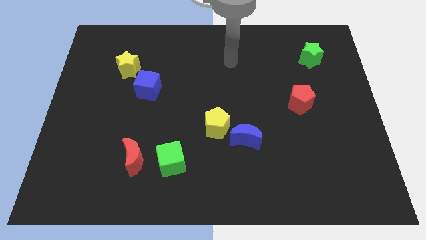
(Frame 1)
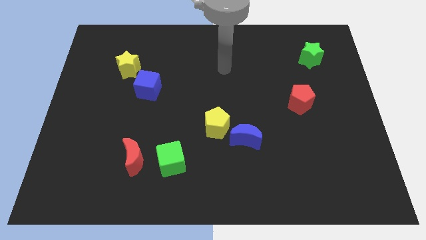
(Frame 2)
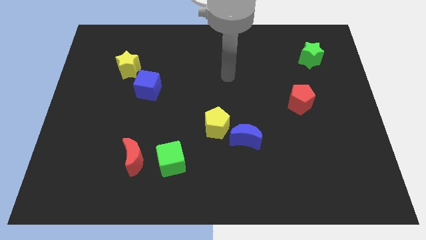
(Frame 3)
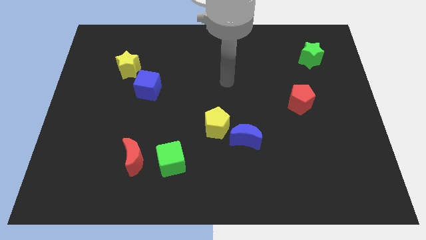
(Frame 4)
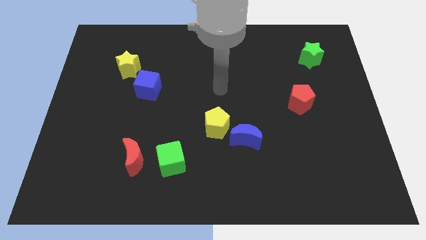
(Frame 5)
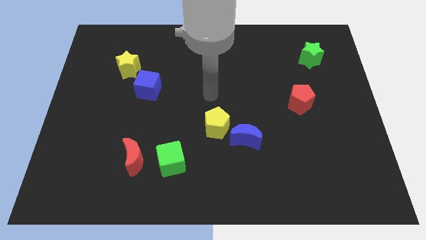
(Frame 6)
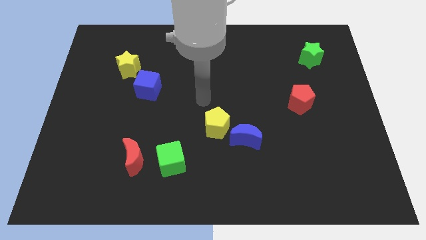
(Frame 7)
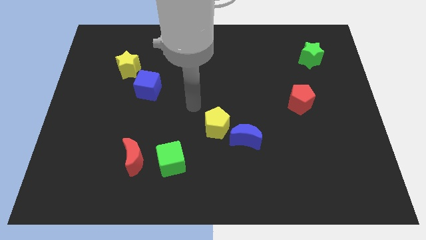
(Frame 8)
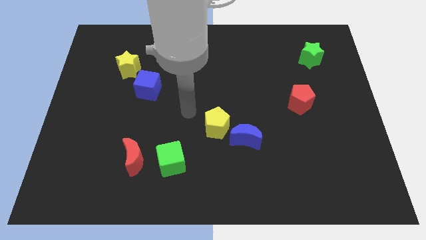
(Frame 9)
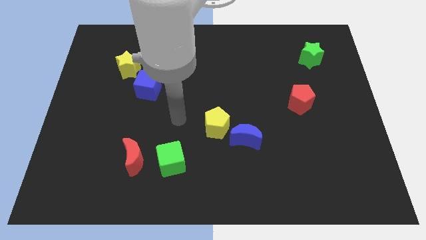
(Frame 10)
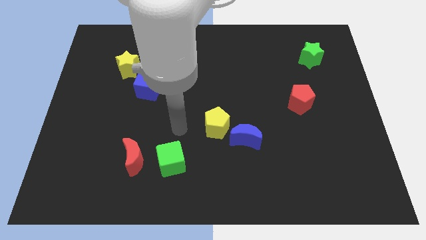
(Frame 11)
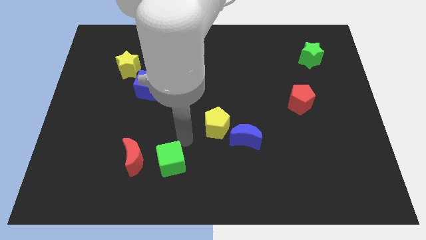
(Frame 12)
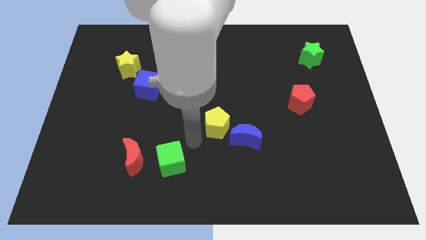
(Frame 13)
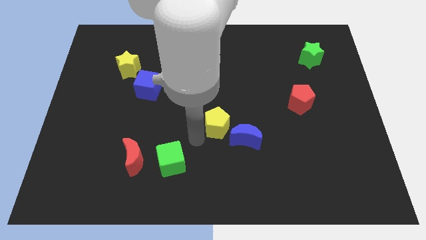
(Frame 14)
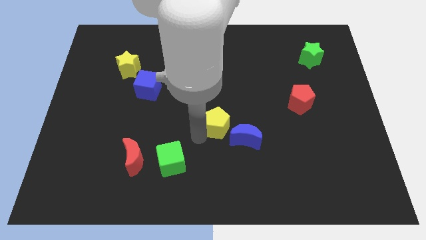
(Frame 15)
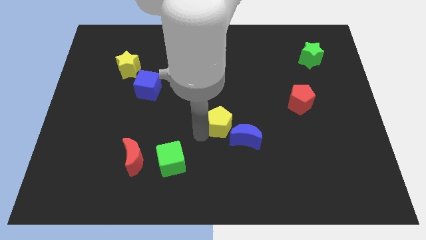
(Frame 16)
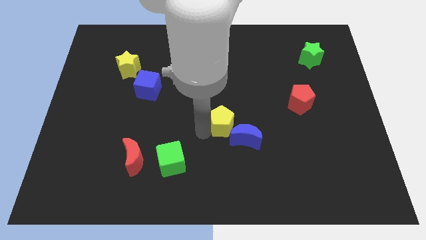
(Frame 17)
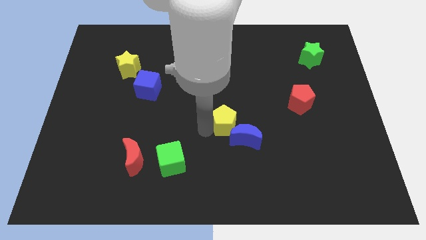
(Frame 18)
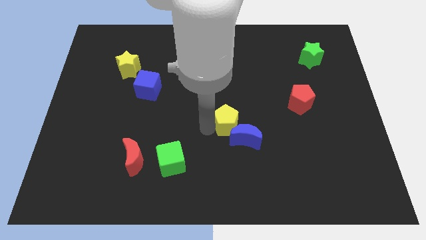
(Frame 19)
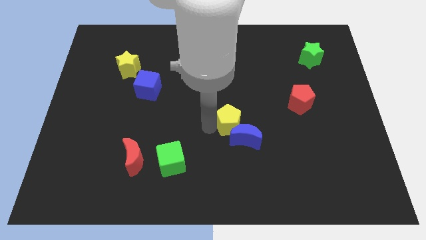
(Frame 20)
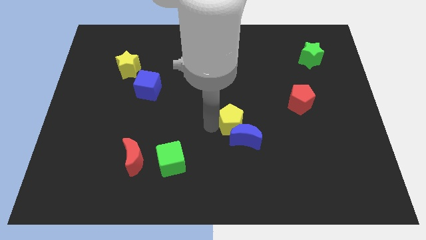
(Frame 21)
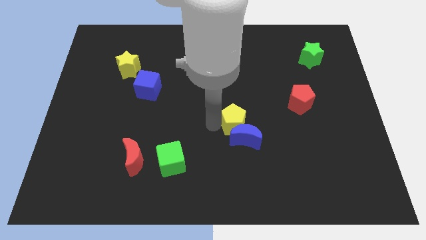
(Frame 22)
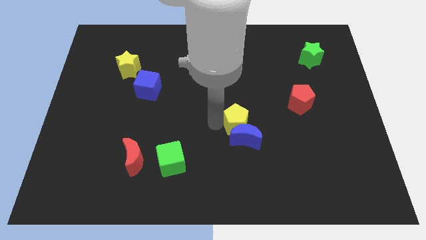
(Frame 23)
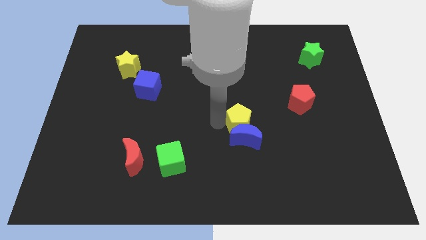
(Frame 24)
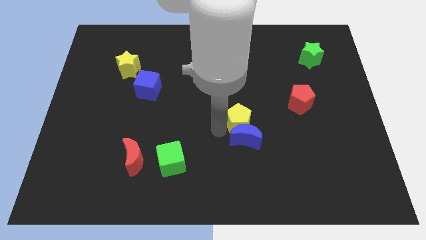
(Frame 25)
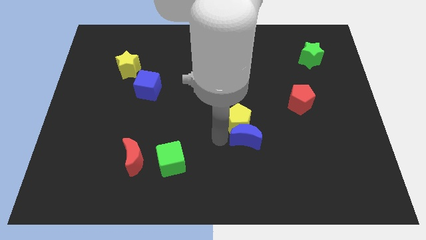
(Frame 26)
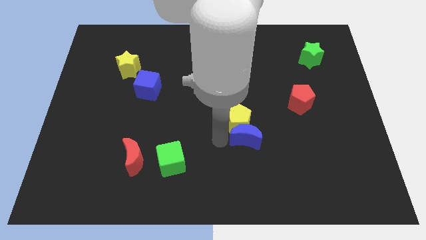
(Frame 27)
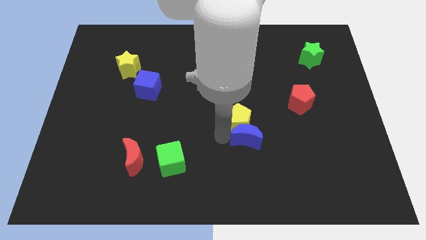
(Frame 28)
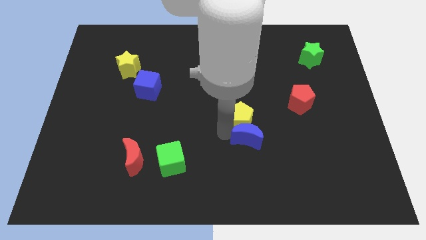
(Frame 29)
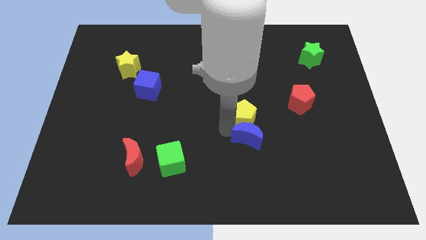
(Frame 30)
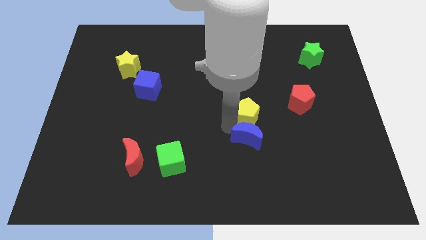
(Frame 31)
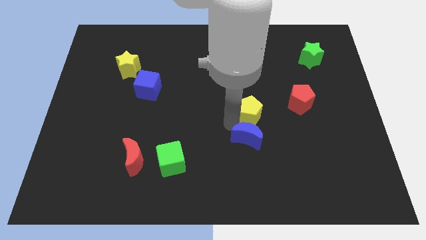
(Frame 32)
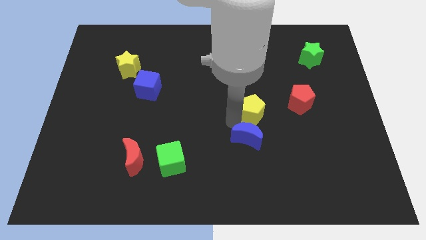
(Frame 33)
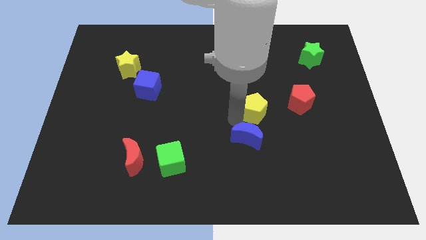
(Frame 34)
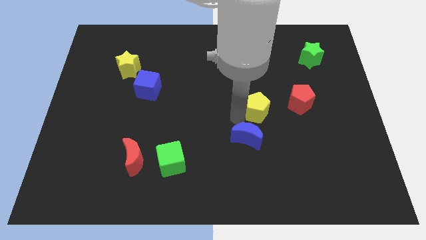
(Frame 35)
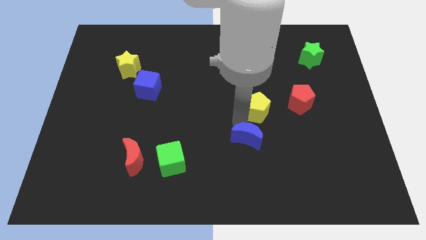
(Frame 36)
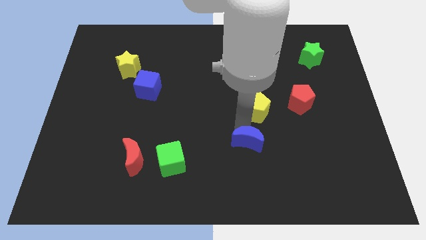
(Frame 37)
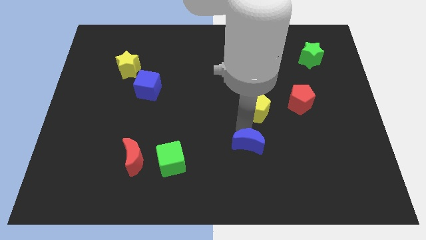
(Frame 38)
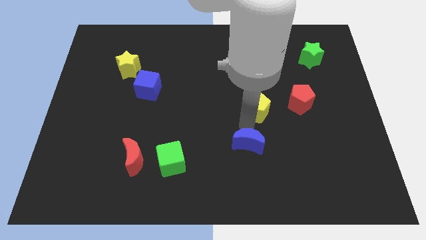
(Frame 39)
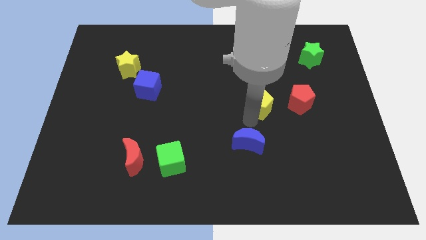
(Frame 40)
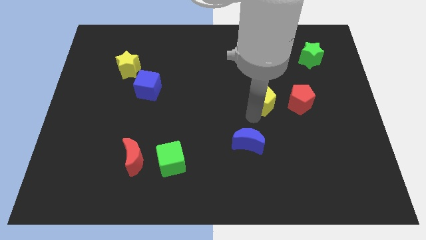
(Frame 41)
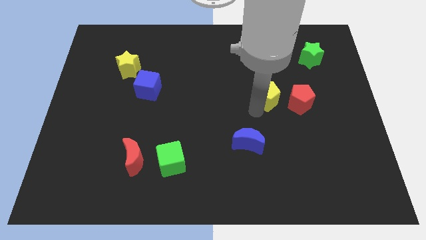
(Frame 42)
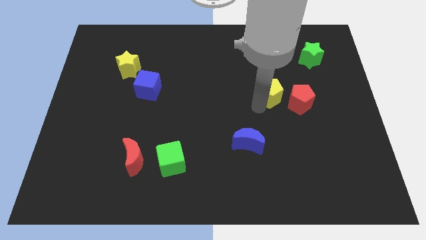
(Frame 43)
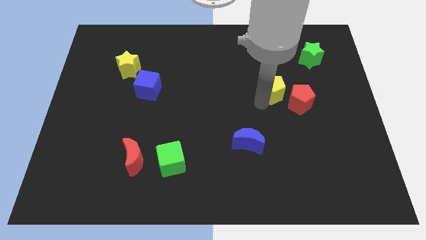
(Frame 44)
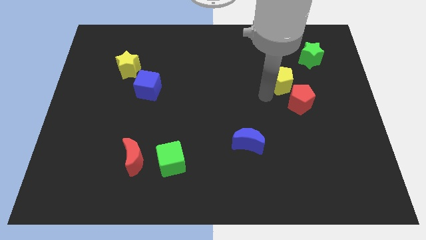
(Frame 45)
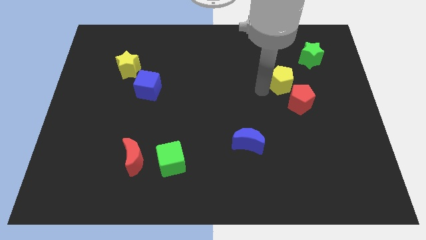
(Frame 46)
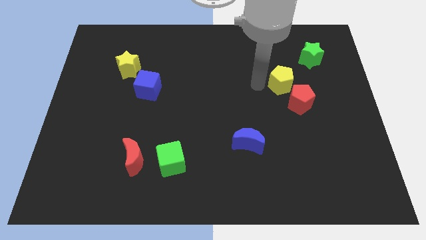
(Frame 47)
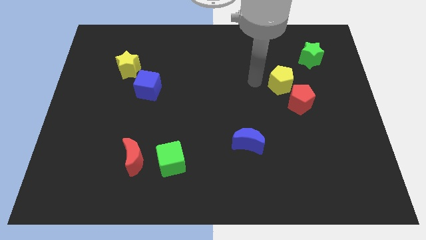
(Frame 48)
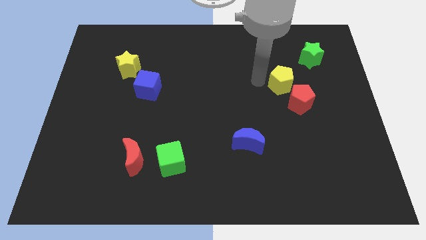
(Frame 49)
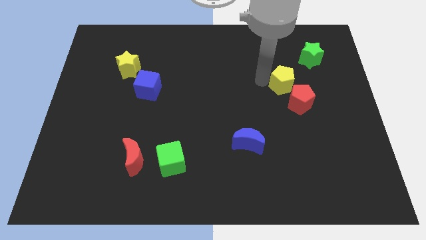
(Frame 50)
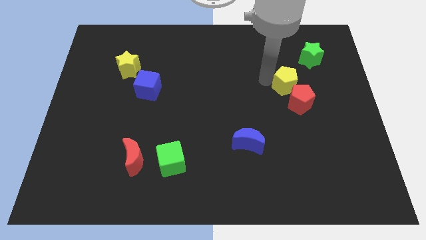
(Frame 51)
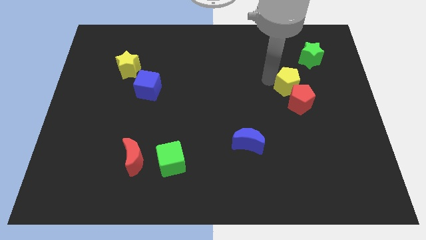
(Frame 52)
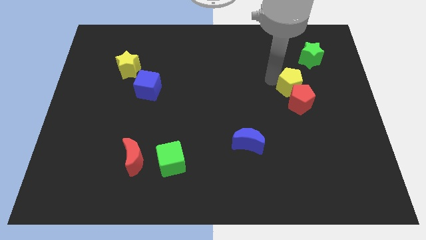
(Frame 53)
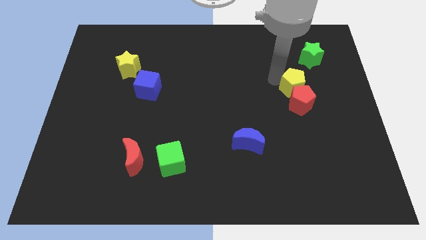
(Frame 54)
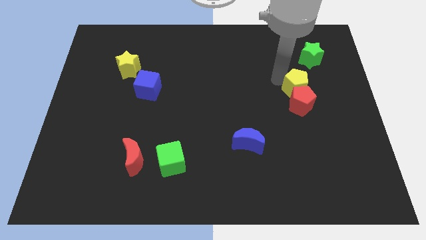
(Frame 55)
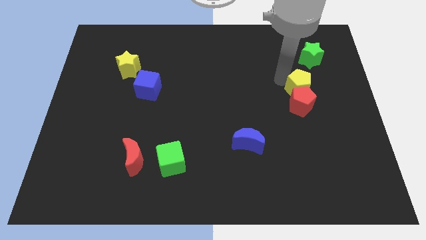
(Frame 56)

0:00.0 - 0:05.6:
push the yellow pentagon to the bottom of the green star

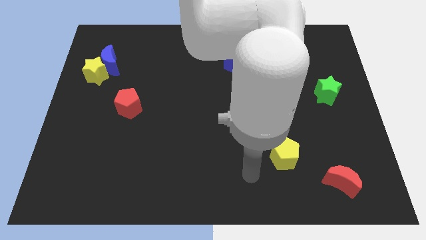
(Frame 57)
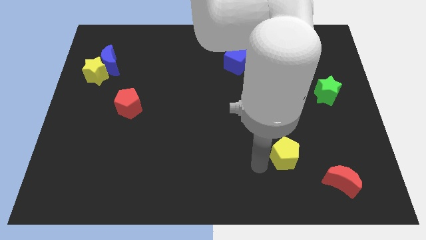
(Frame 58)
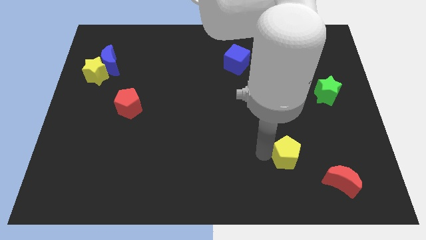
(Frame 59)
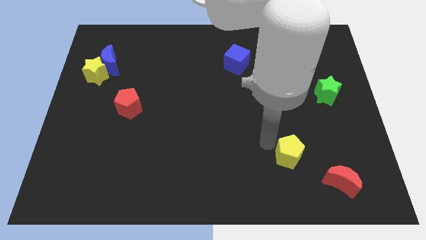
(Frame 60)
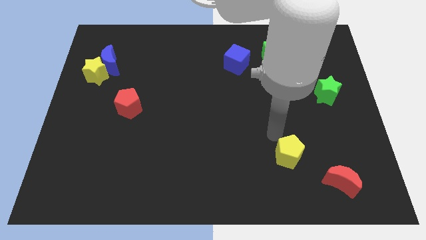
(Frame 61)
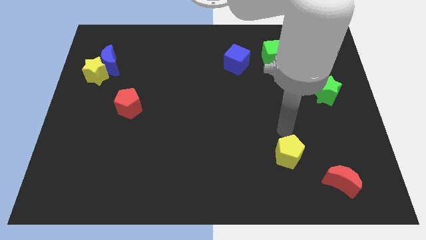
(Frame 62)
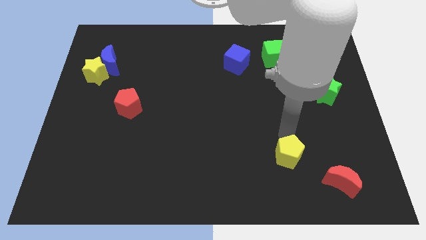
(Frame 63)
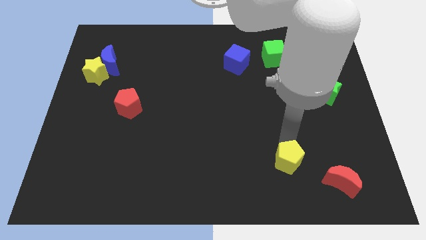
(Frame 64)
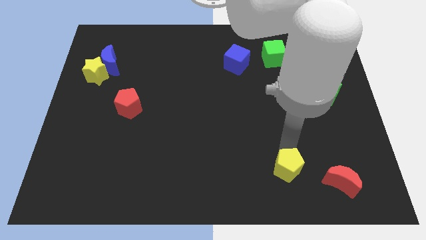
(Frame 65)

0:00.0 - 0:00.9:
move the yellow pentagon to the left of the red moon
